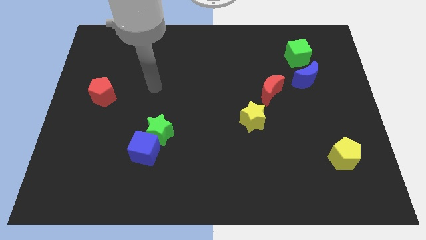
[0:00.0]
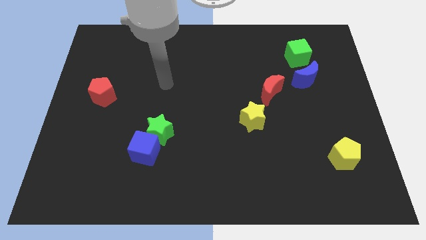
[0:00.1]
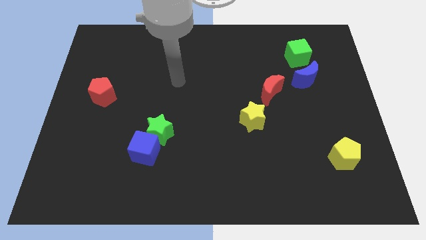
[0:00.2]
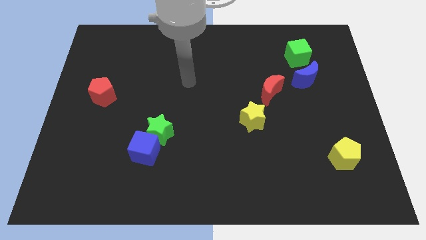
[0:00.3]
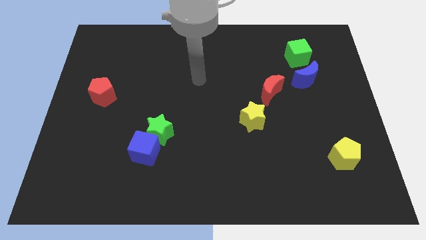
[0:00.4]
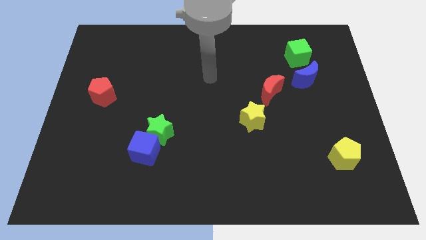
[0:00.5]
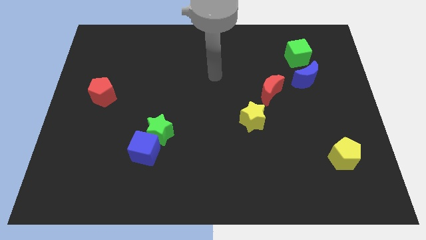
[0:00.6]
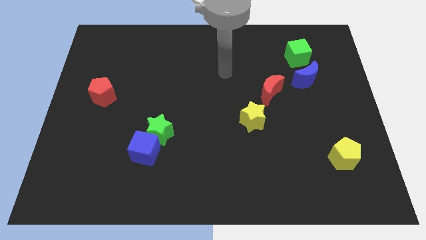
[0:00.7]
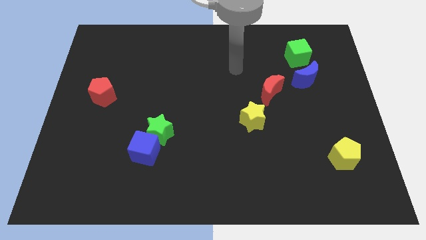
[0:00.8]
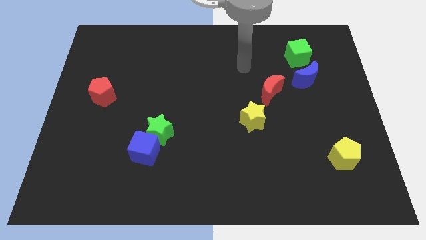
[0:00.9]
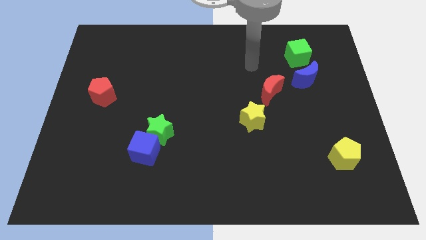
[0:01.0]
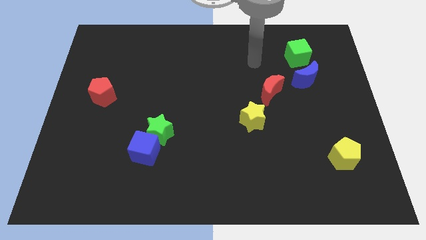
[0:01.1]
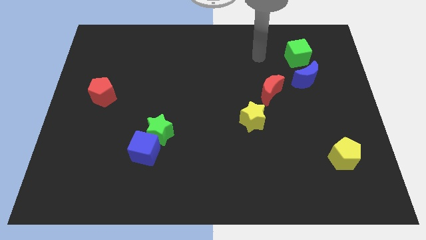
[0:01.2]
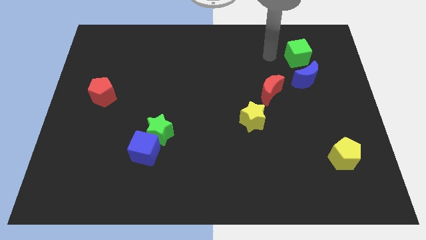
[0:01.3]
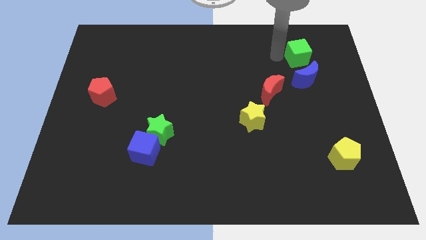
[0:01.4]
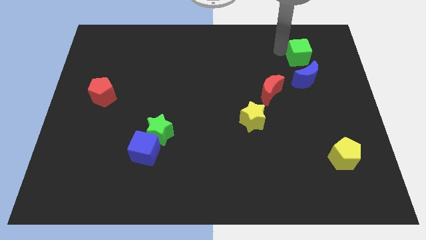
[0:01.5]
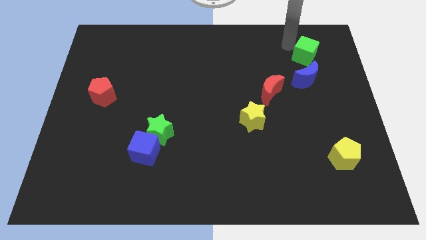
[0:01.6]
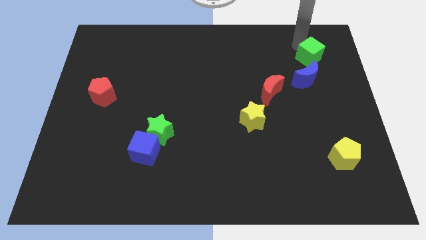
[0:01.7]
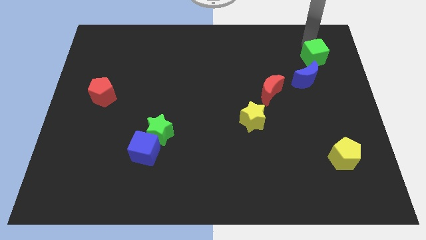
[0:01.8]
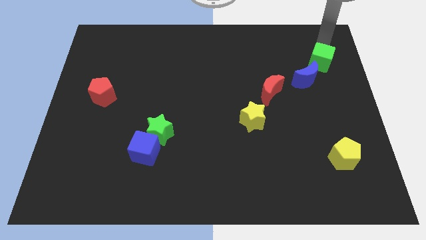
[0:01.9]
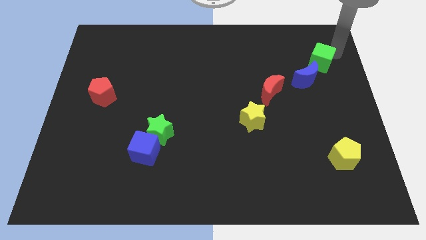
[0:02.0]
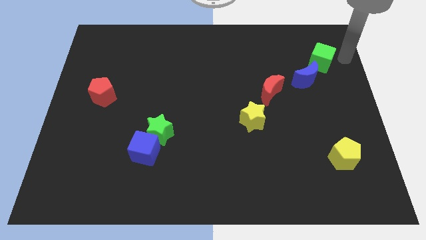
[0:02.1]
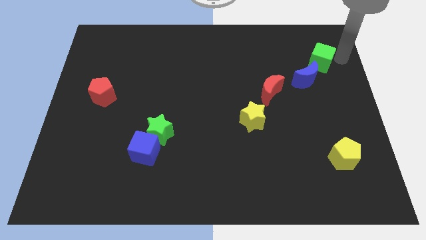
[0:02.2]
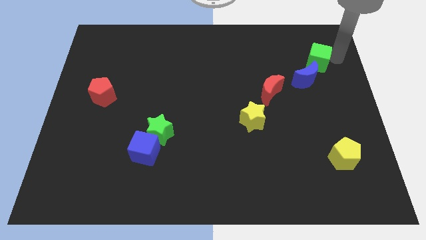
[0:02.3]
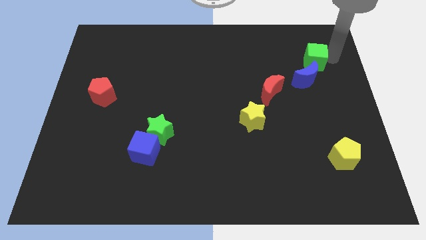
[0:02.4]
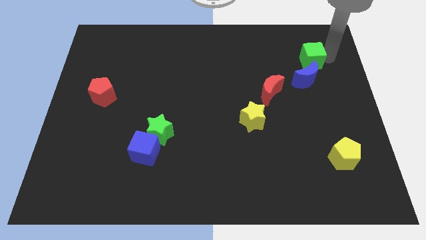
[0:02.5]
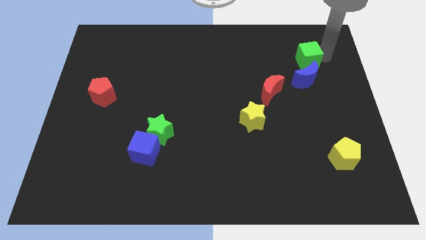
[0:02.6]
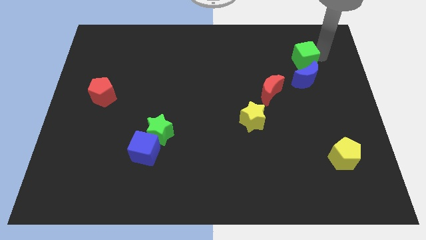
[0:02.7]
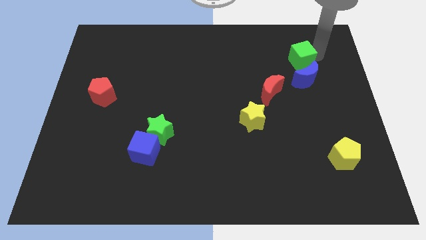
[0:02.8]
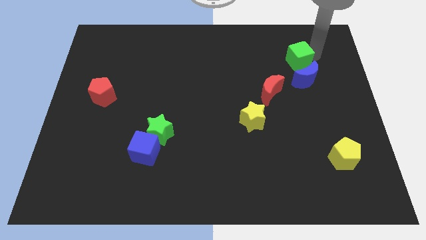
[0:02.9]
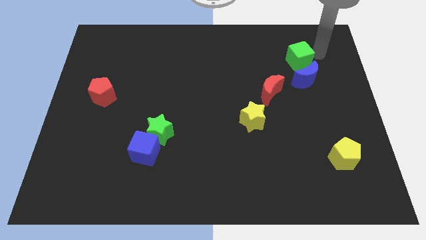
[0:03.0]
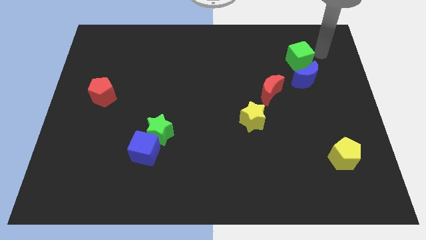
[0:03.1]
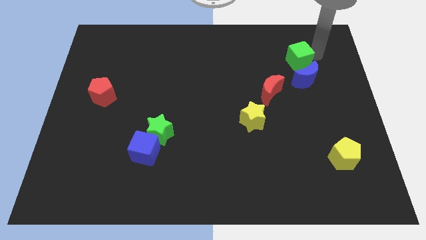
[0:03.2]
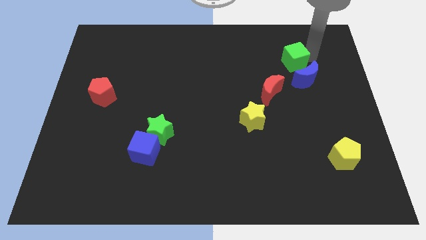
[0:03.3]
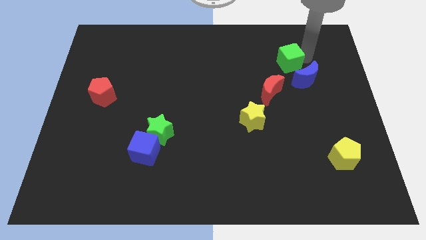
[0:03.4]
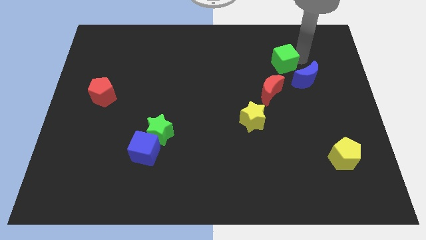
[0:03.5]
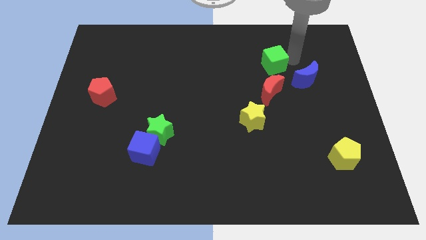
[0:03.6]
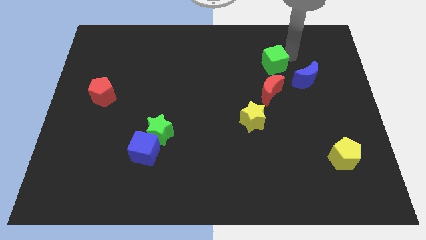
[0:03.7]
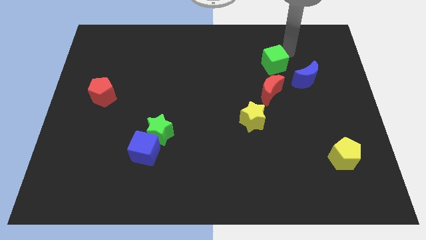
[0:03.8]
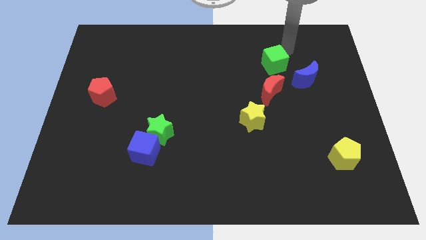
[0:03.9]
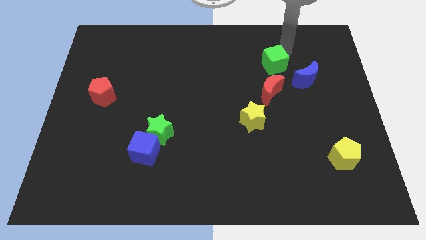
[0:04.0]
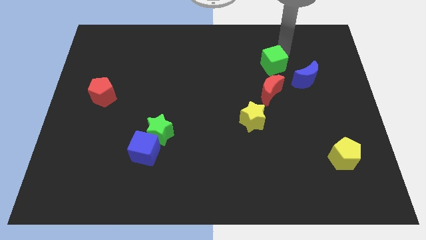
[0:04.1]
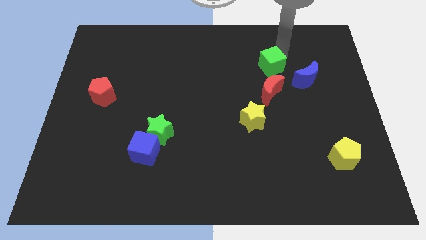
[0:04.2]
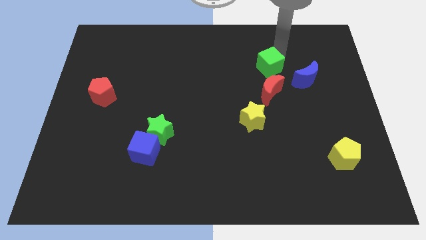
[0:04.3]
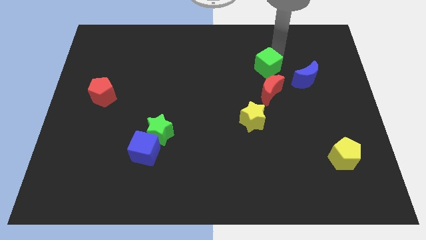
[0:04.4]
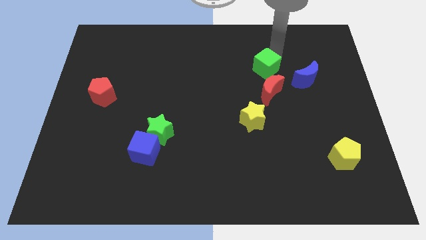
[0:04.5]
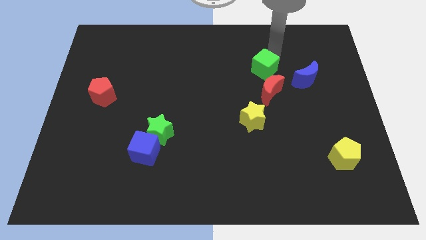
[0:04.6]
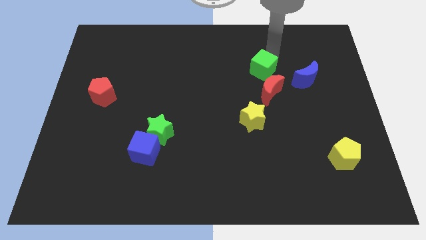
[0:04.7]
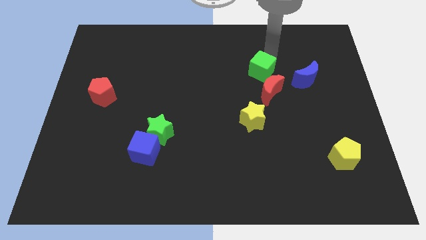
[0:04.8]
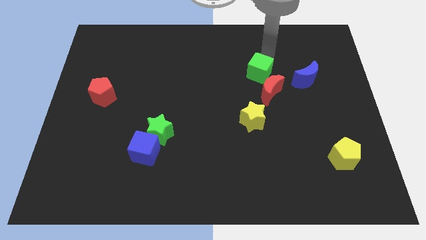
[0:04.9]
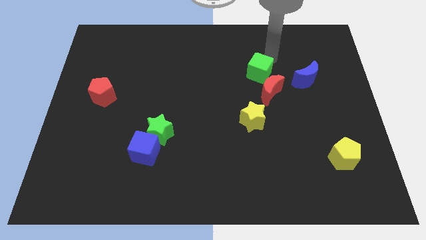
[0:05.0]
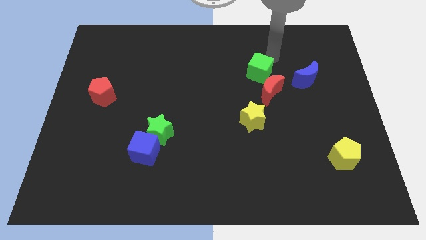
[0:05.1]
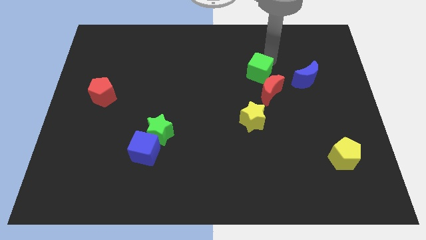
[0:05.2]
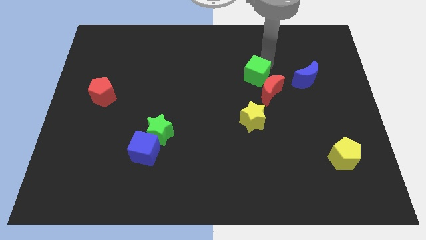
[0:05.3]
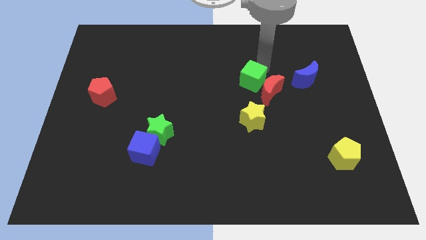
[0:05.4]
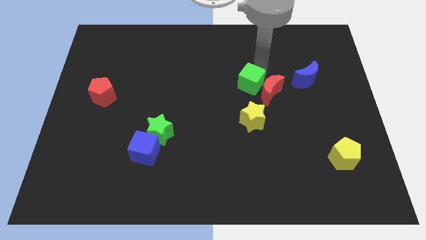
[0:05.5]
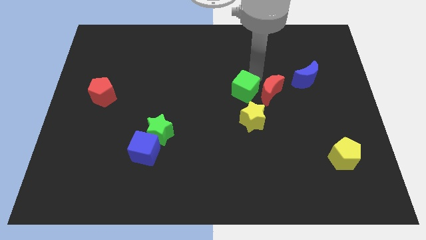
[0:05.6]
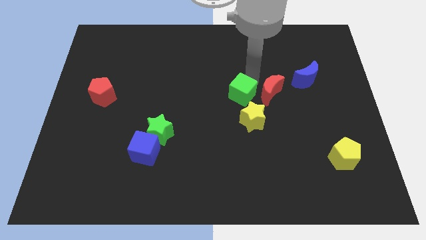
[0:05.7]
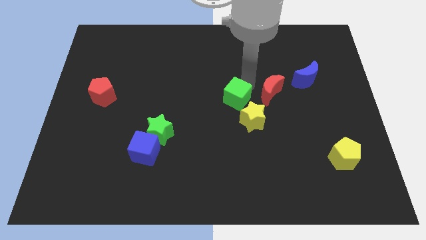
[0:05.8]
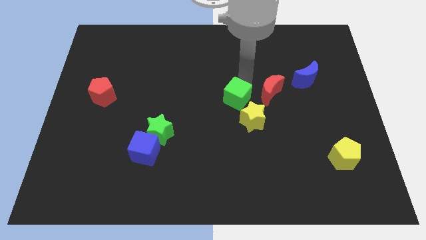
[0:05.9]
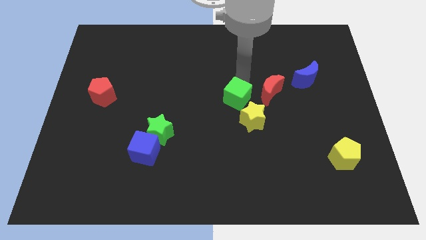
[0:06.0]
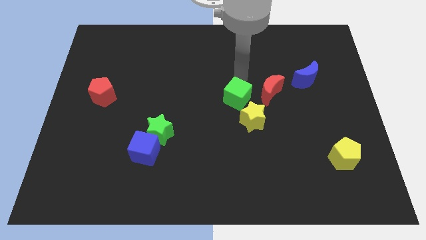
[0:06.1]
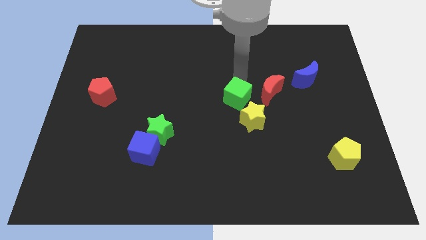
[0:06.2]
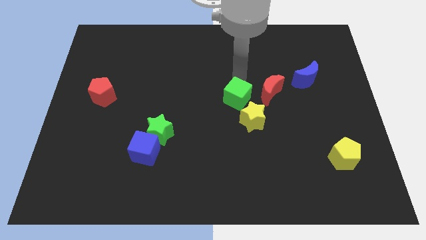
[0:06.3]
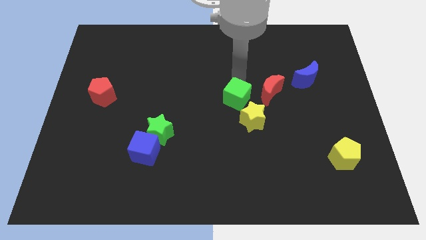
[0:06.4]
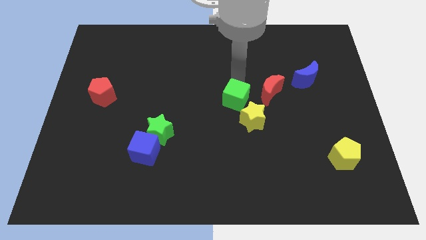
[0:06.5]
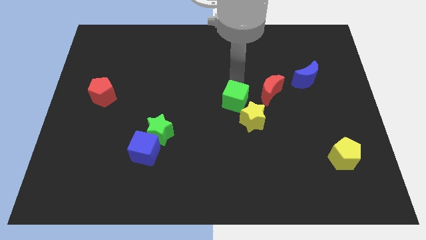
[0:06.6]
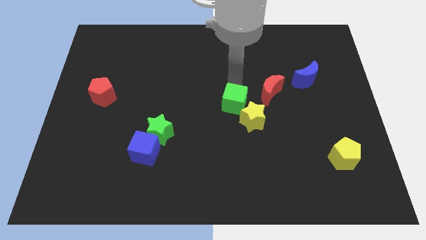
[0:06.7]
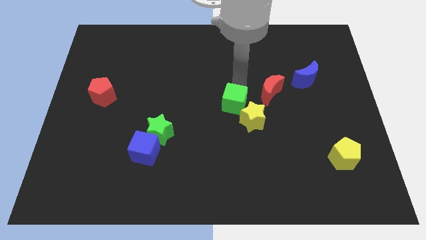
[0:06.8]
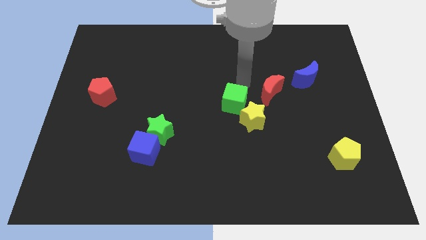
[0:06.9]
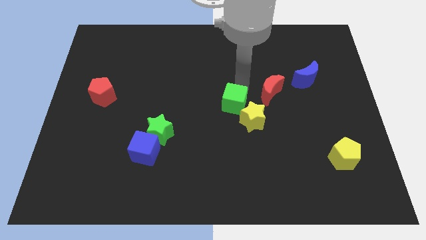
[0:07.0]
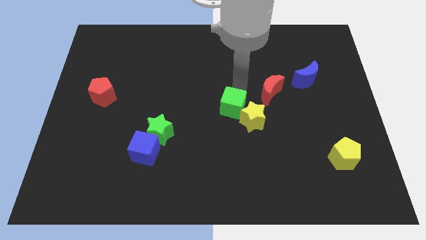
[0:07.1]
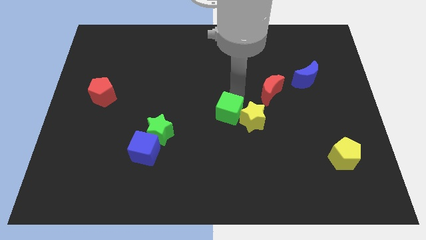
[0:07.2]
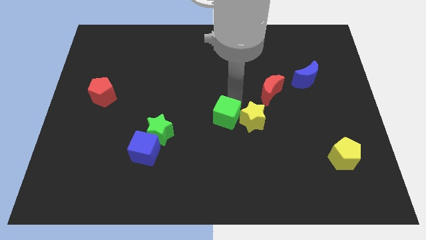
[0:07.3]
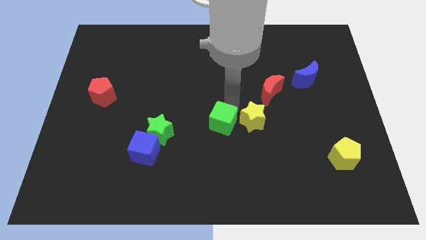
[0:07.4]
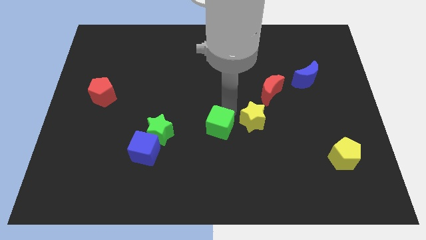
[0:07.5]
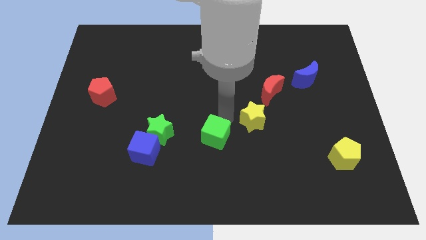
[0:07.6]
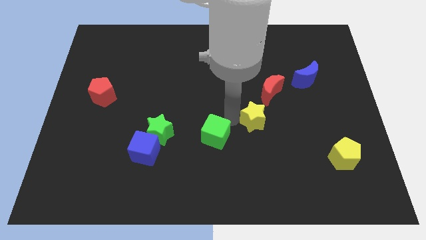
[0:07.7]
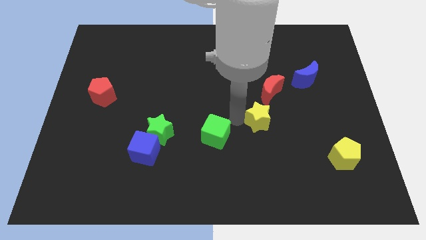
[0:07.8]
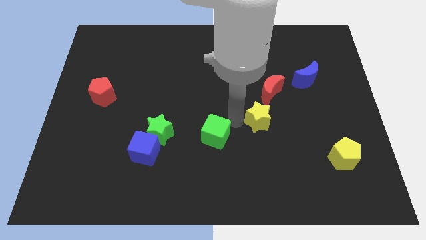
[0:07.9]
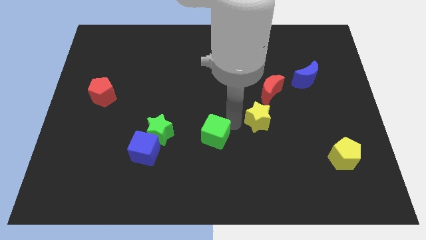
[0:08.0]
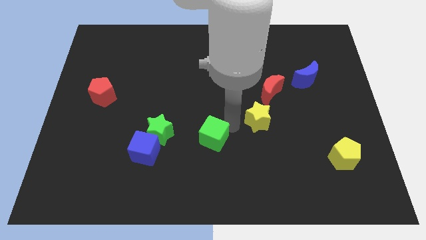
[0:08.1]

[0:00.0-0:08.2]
push the green cube to the right of the blue cube
